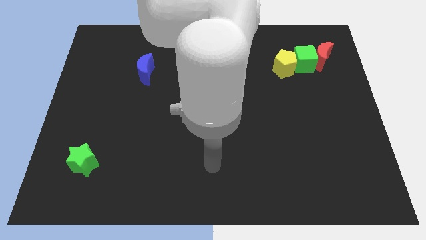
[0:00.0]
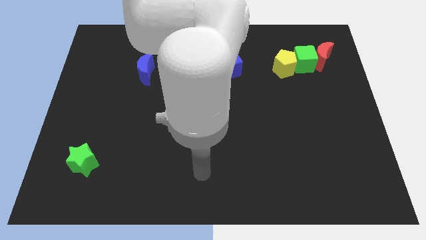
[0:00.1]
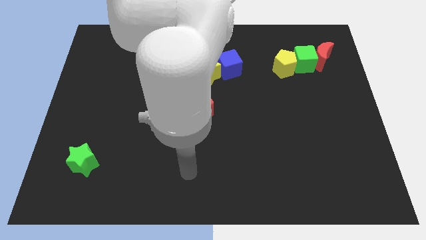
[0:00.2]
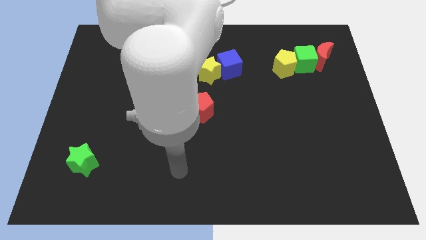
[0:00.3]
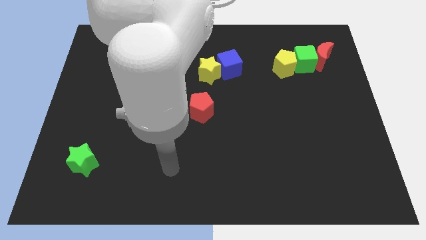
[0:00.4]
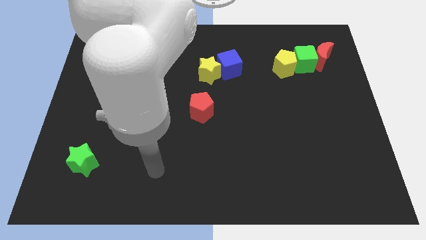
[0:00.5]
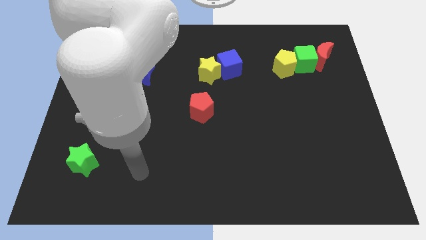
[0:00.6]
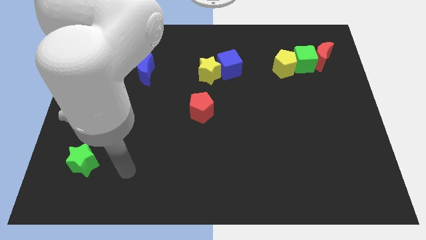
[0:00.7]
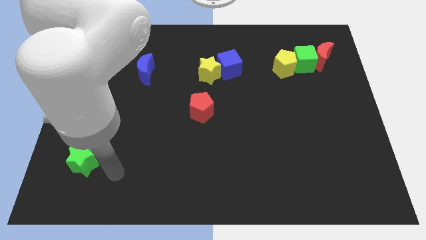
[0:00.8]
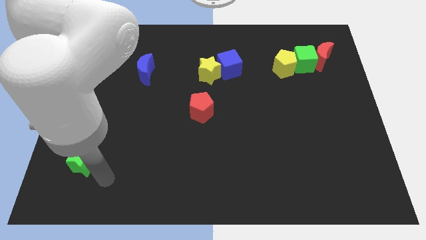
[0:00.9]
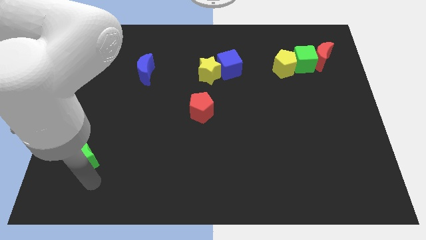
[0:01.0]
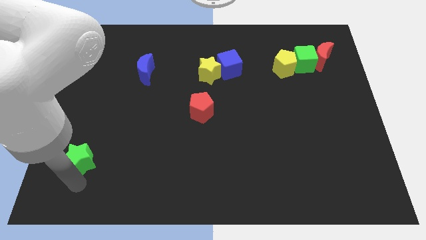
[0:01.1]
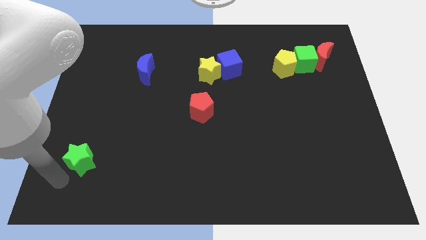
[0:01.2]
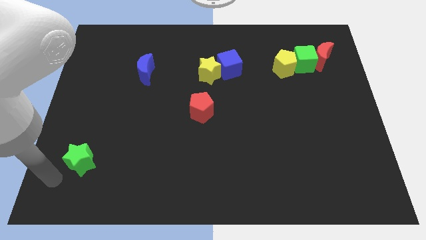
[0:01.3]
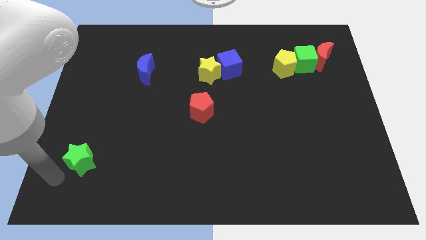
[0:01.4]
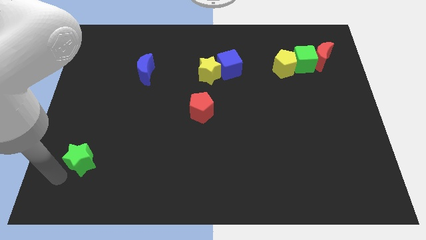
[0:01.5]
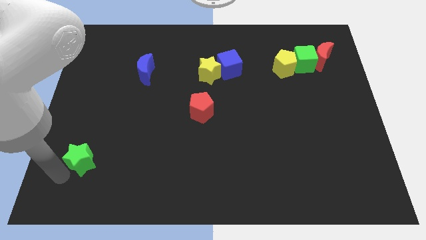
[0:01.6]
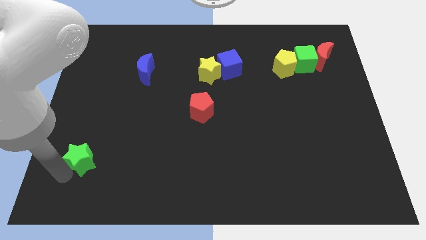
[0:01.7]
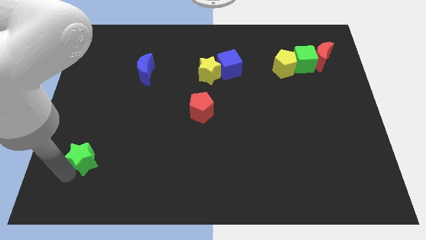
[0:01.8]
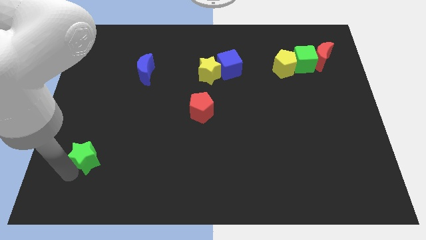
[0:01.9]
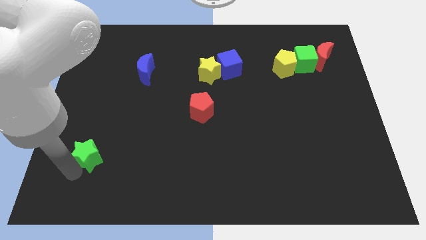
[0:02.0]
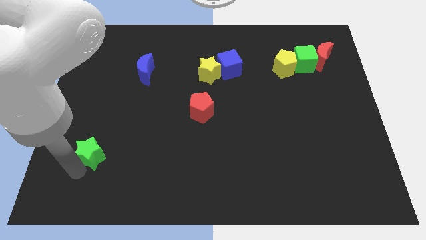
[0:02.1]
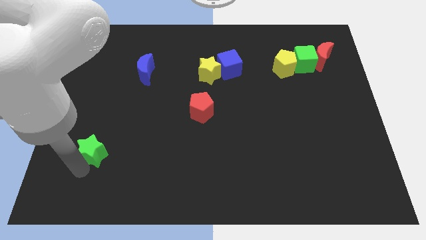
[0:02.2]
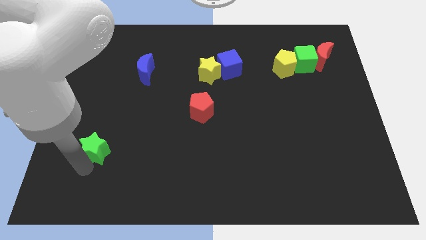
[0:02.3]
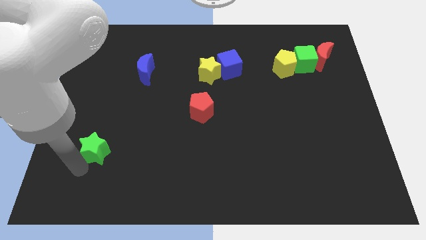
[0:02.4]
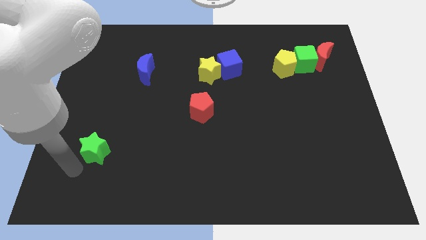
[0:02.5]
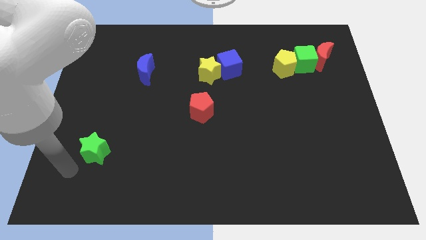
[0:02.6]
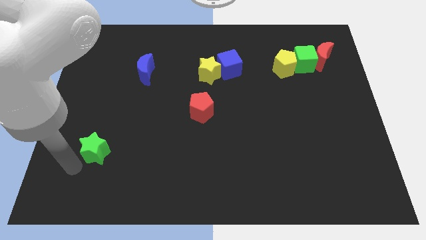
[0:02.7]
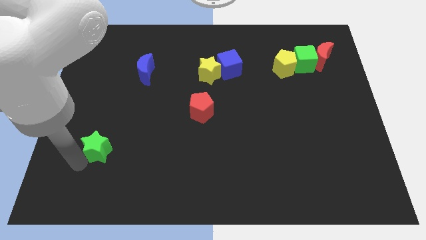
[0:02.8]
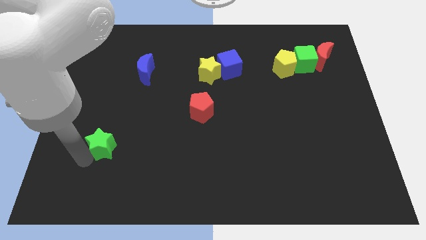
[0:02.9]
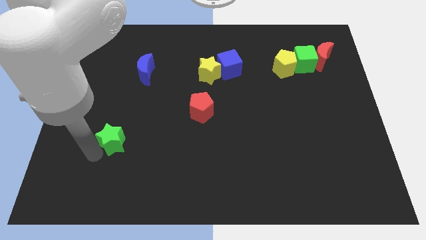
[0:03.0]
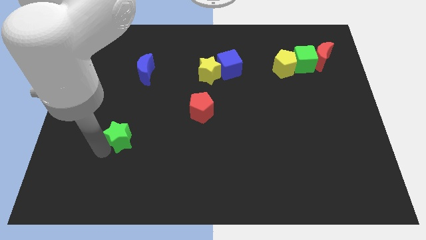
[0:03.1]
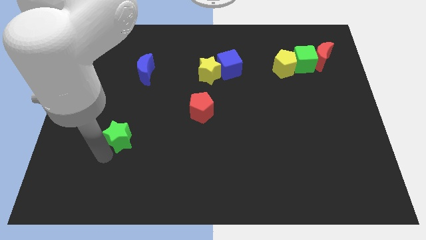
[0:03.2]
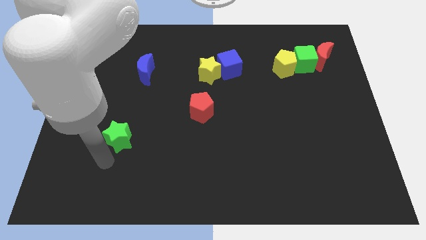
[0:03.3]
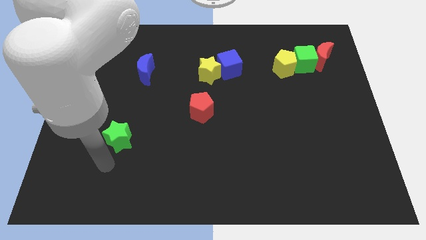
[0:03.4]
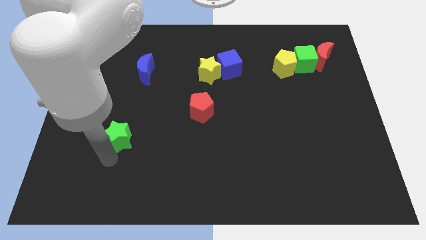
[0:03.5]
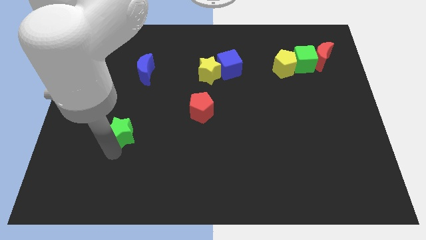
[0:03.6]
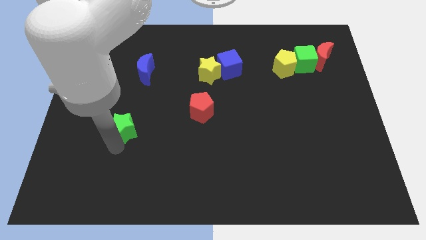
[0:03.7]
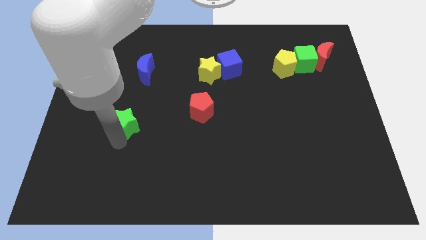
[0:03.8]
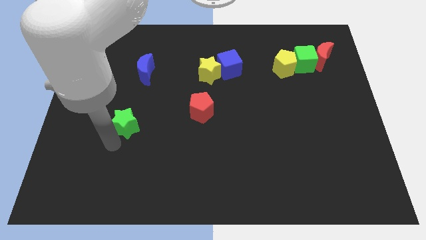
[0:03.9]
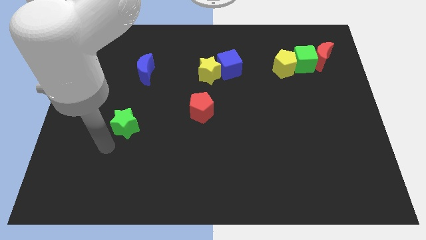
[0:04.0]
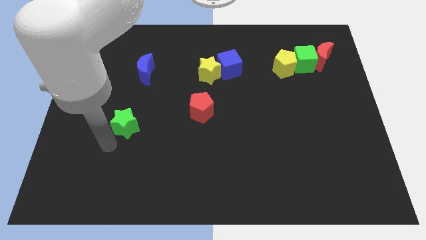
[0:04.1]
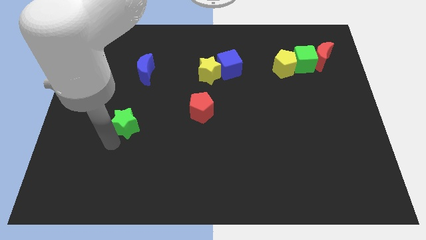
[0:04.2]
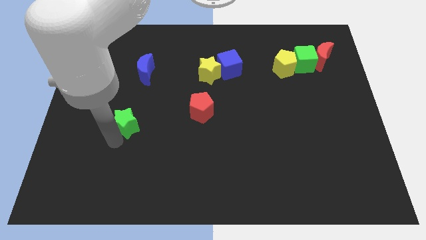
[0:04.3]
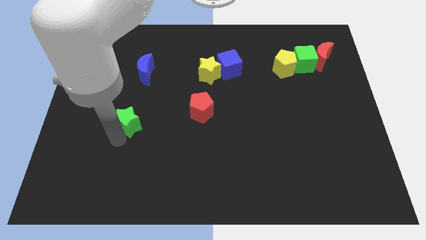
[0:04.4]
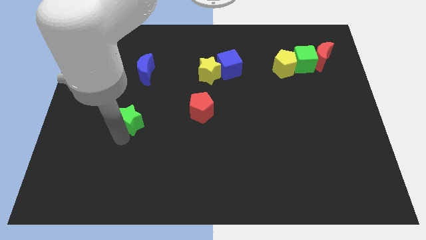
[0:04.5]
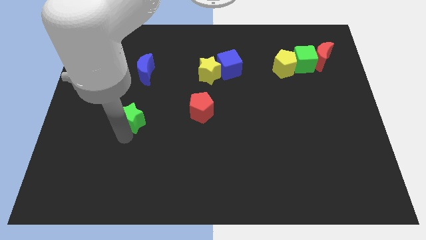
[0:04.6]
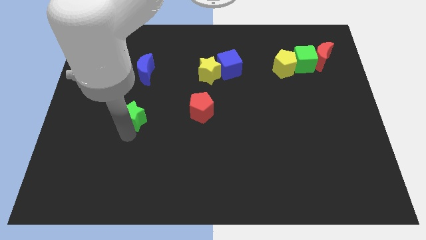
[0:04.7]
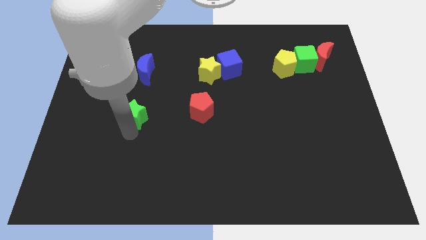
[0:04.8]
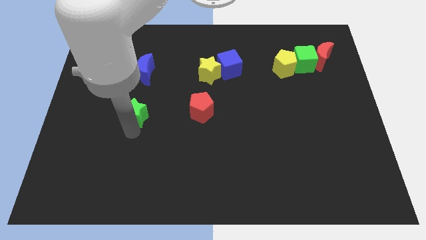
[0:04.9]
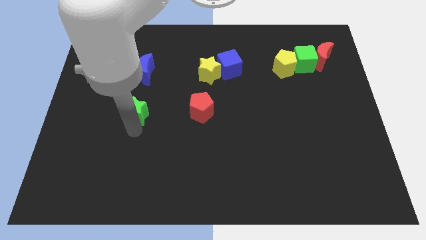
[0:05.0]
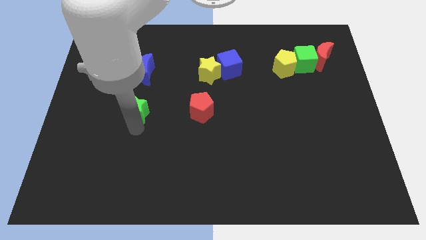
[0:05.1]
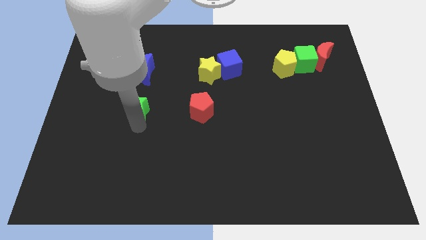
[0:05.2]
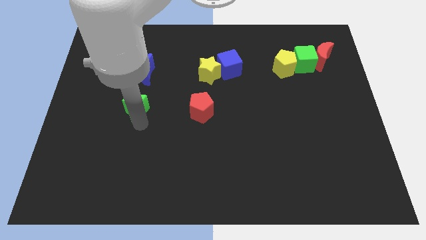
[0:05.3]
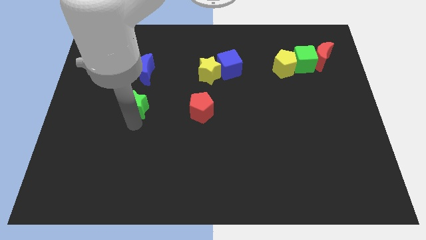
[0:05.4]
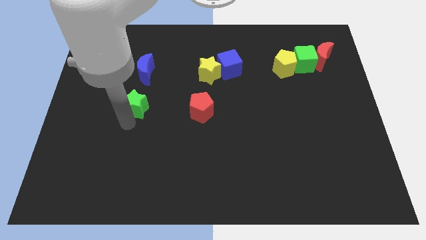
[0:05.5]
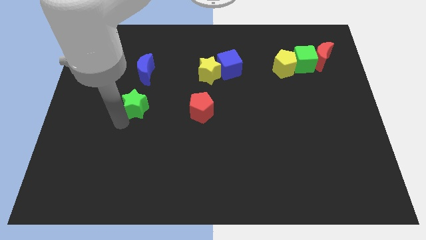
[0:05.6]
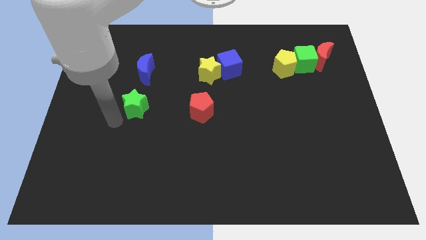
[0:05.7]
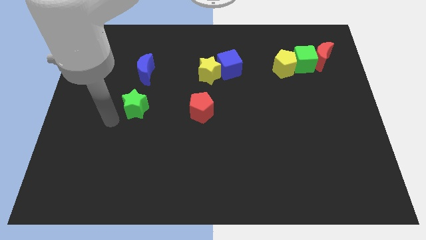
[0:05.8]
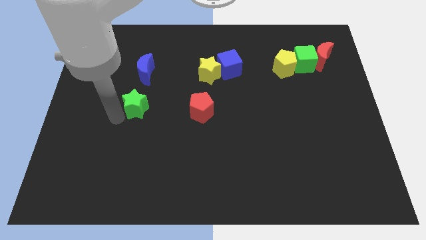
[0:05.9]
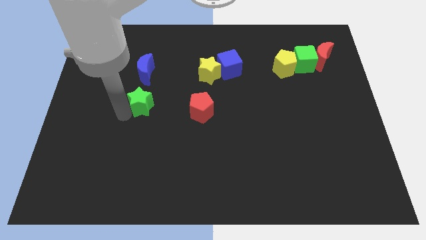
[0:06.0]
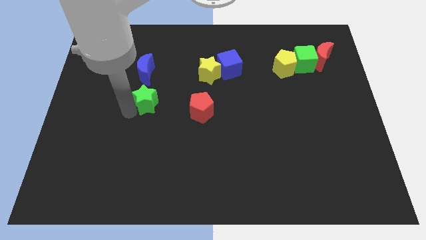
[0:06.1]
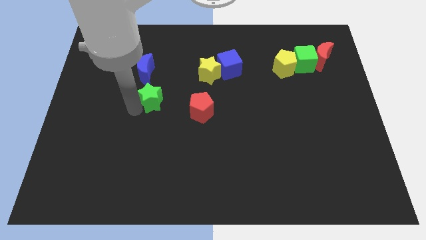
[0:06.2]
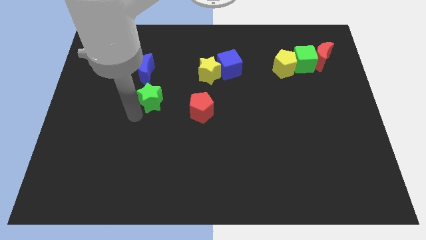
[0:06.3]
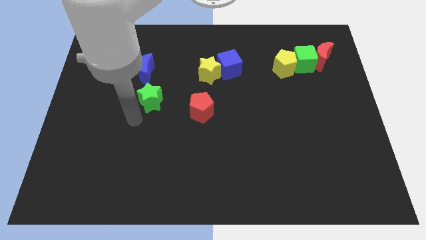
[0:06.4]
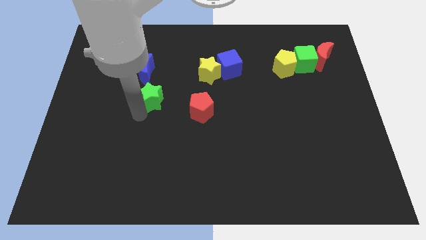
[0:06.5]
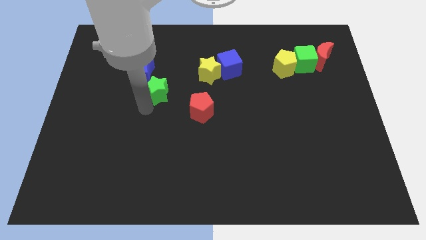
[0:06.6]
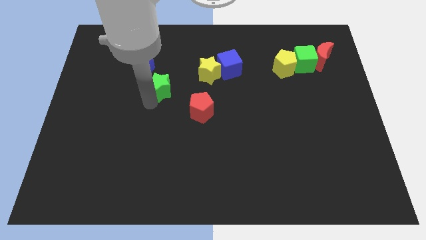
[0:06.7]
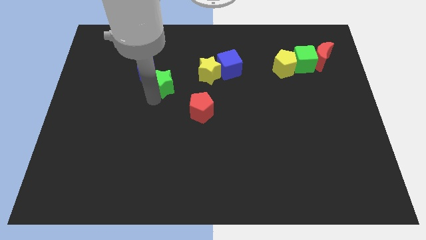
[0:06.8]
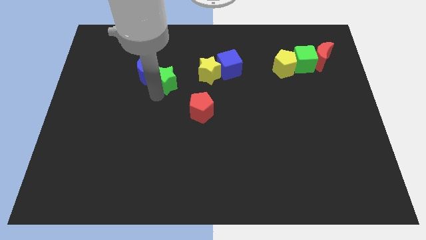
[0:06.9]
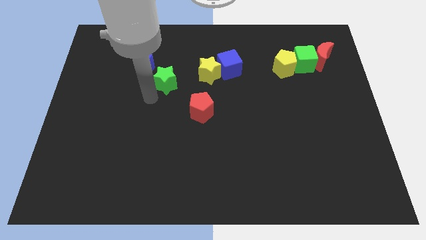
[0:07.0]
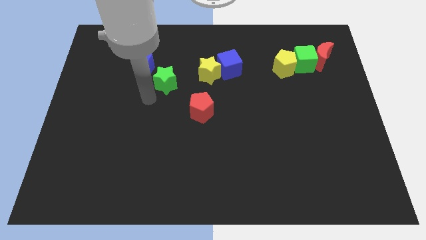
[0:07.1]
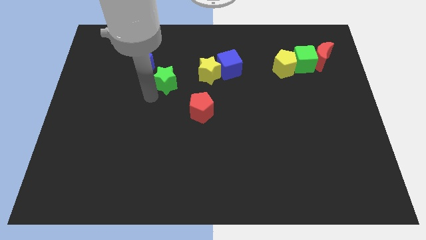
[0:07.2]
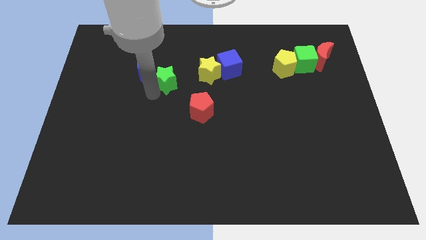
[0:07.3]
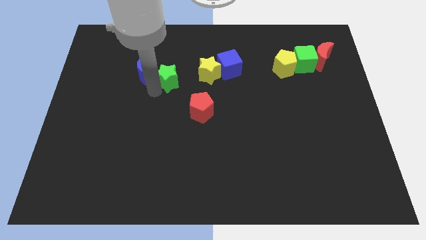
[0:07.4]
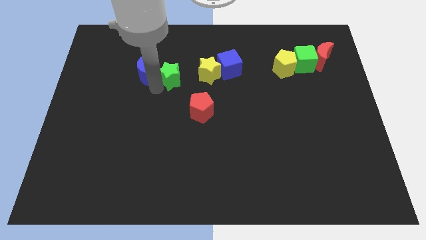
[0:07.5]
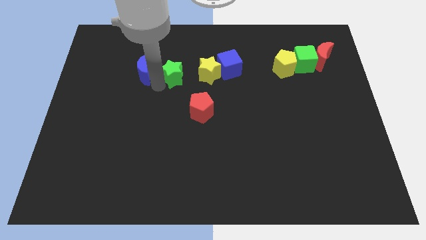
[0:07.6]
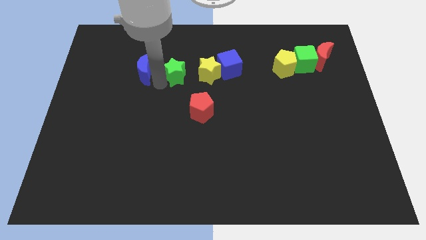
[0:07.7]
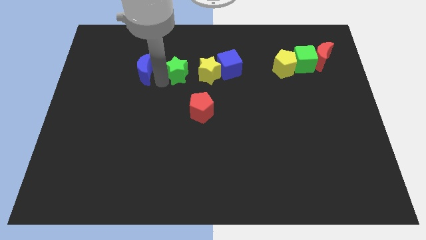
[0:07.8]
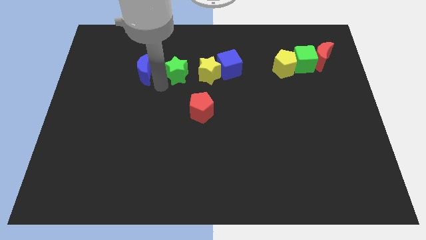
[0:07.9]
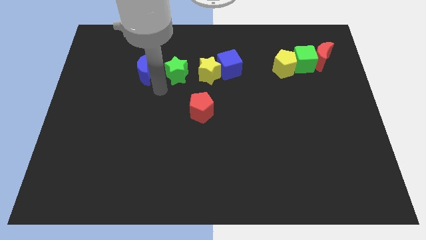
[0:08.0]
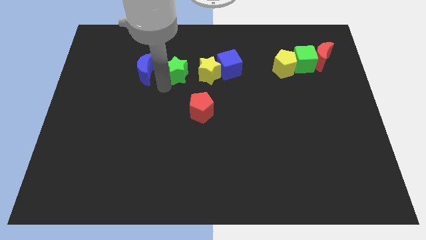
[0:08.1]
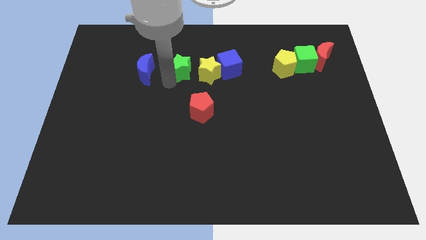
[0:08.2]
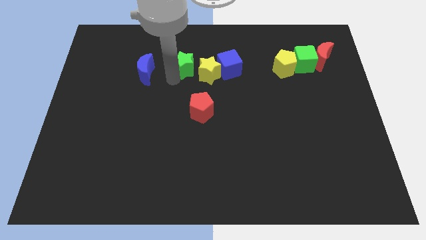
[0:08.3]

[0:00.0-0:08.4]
move the green star to the top of the red pentagon
